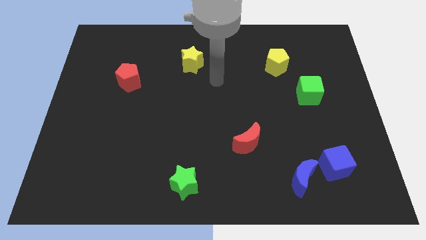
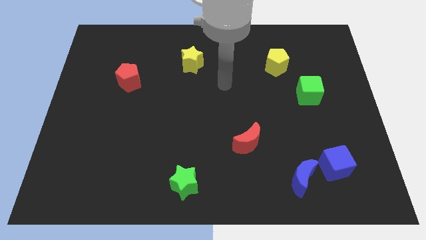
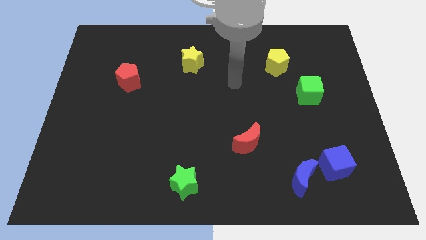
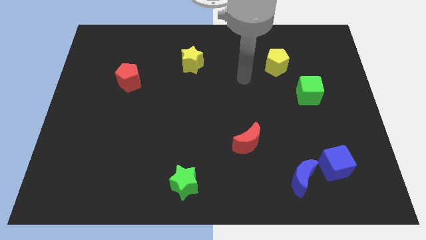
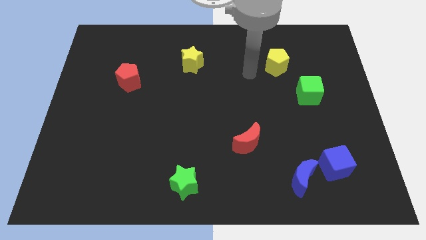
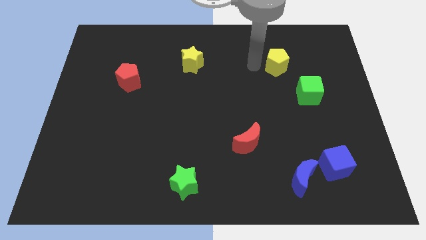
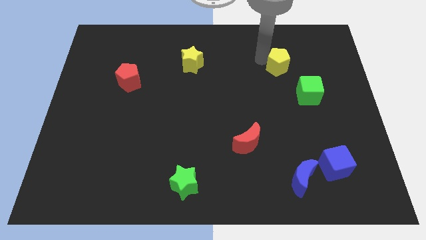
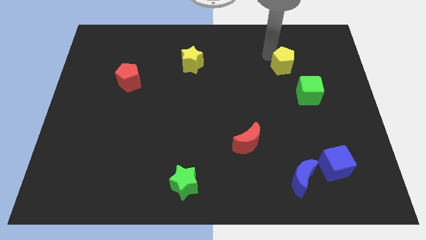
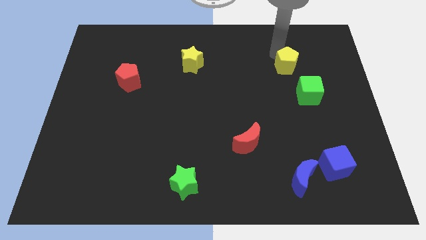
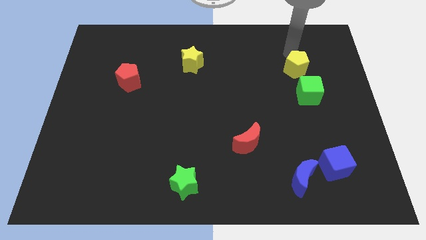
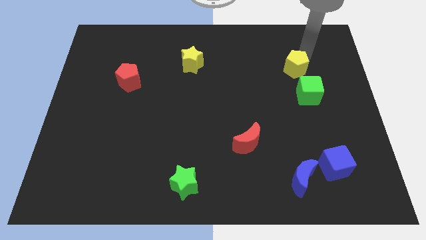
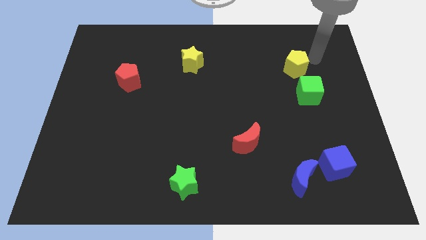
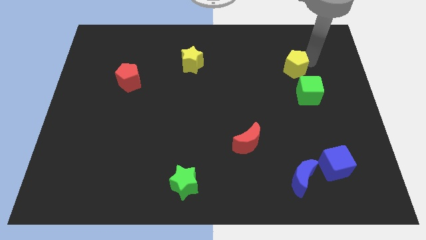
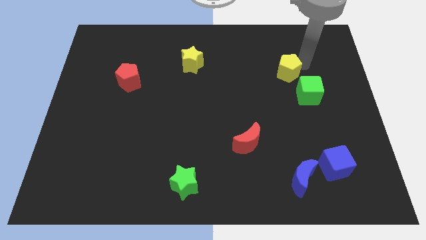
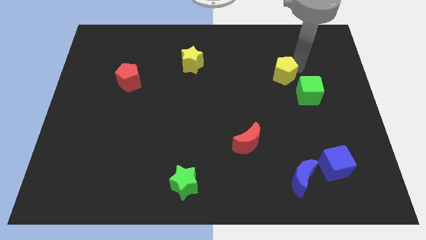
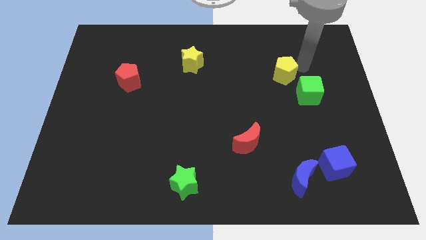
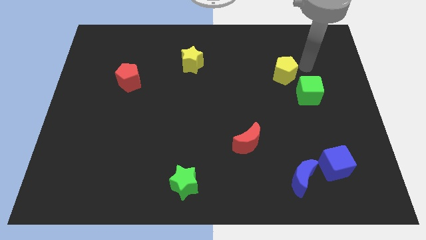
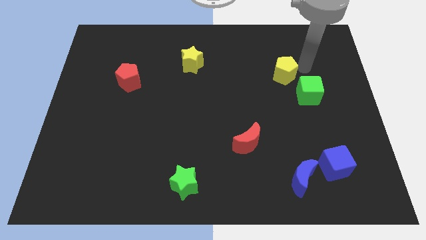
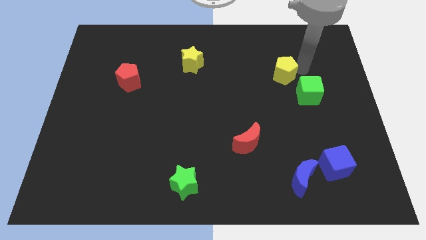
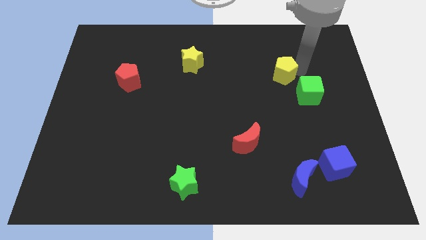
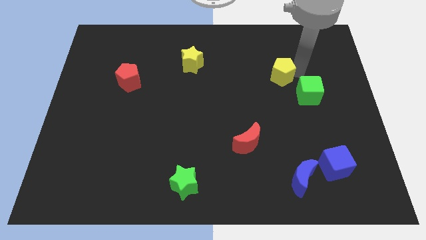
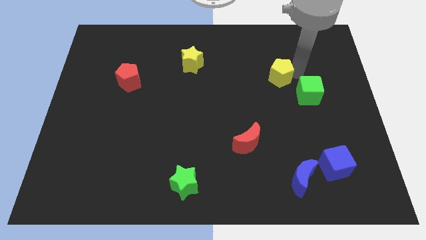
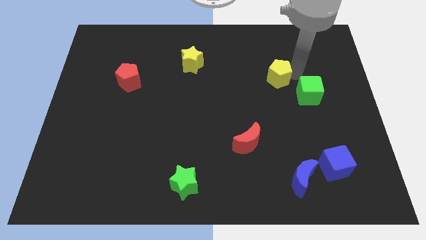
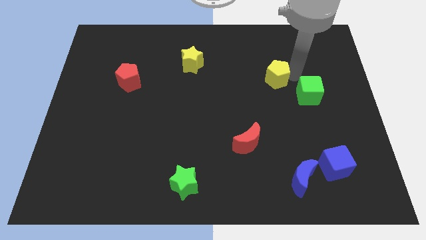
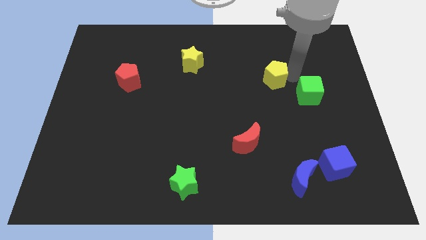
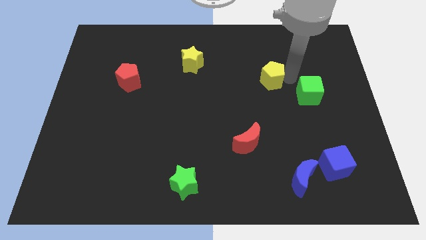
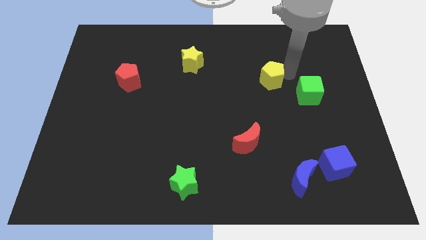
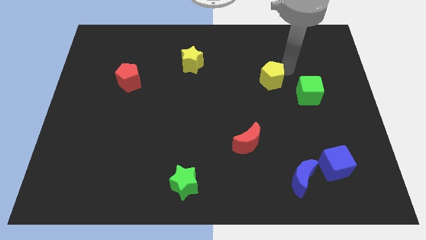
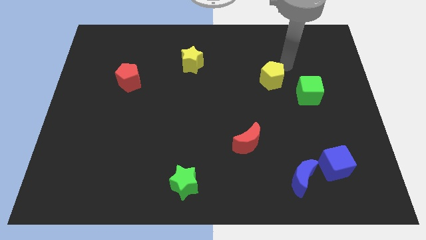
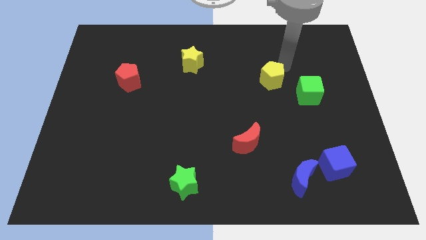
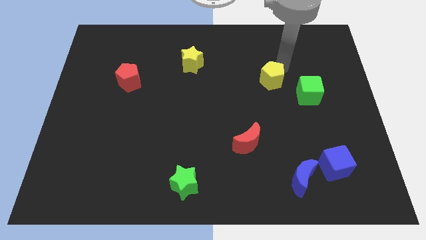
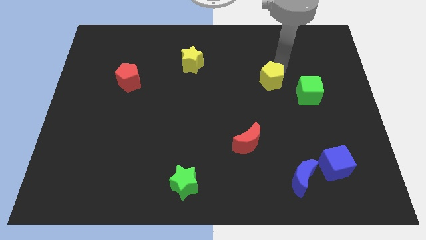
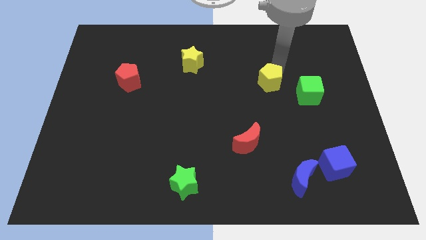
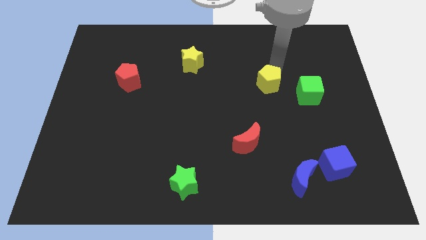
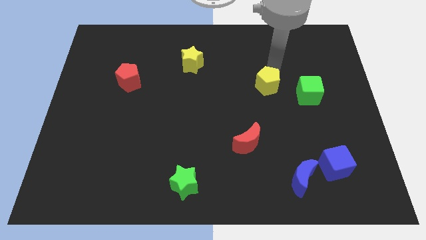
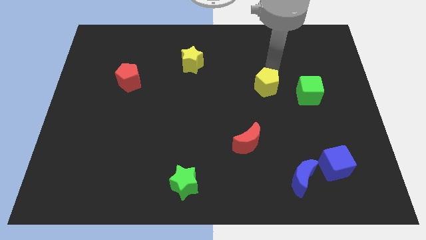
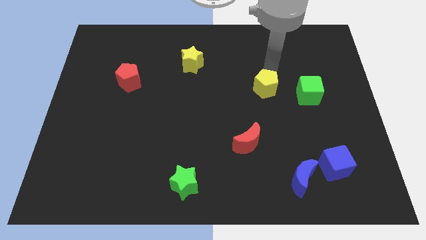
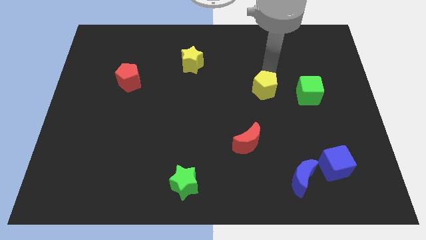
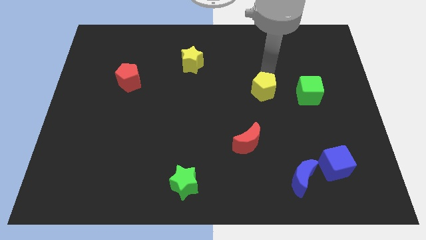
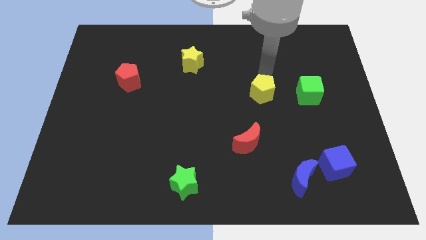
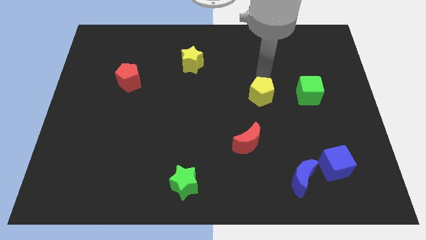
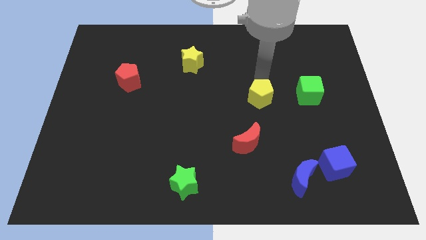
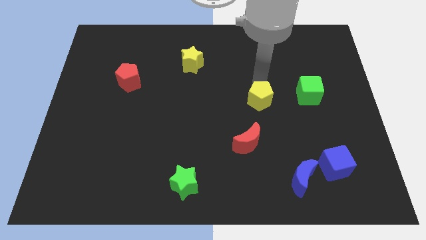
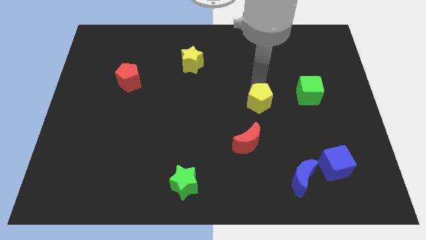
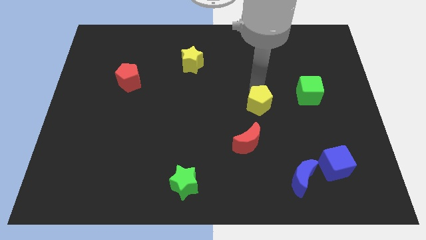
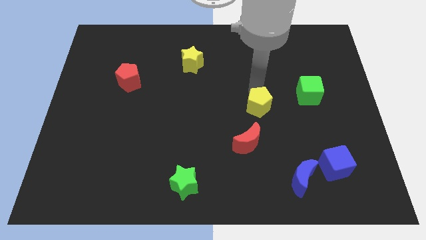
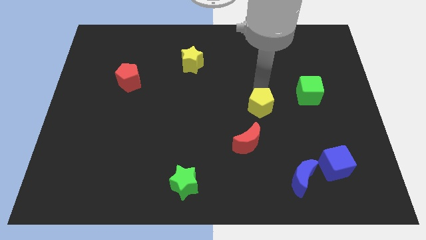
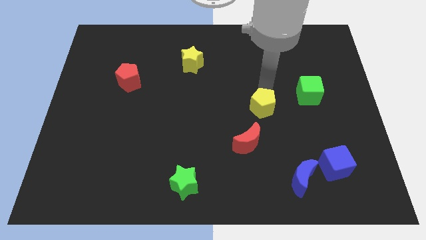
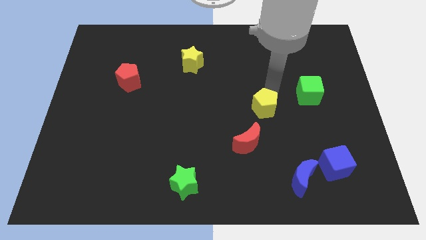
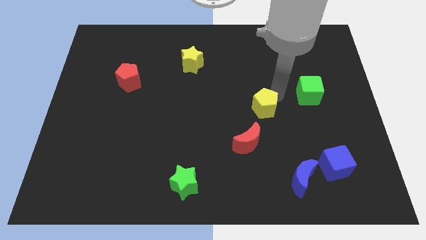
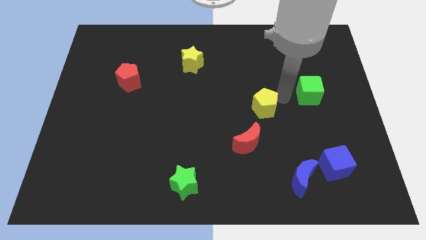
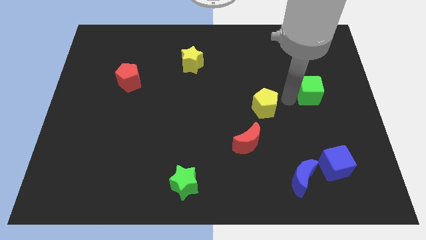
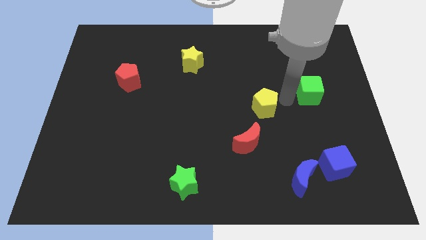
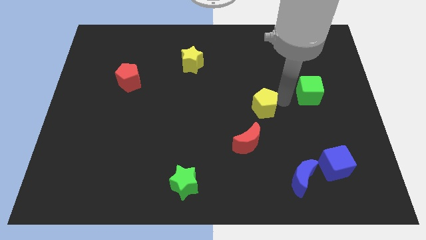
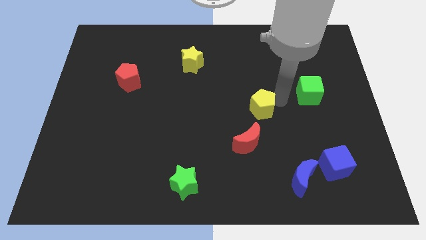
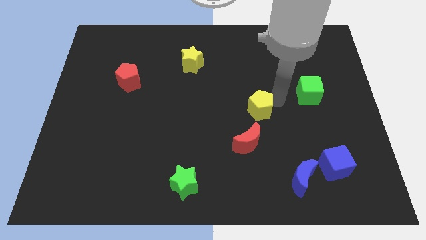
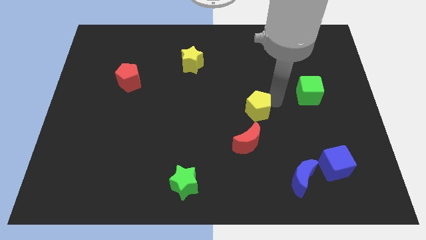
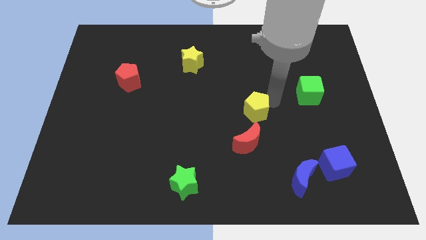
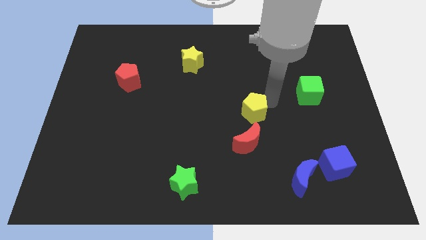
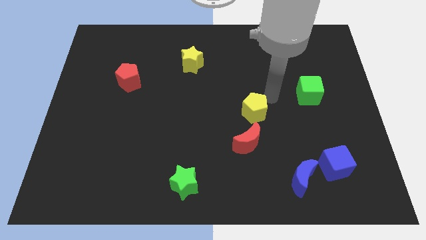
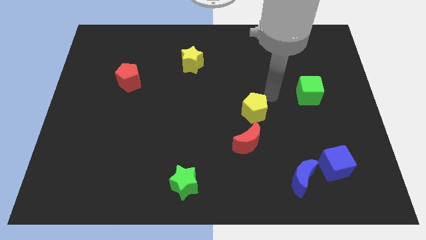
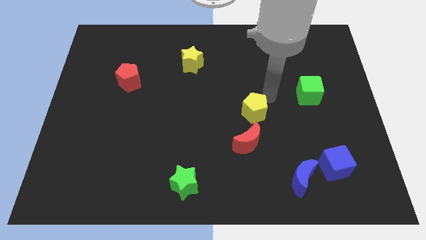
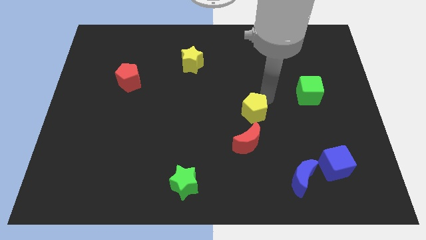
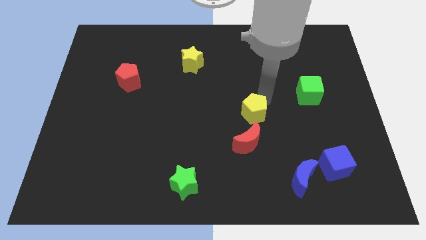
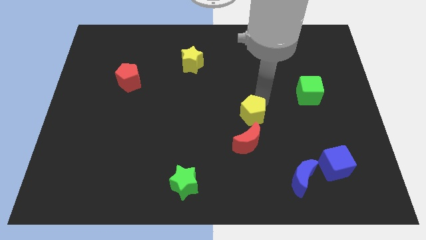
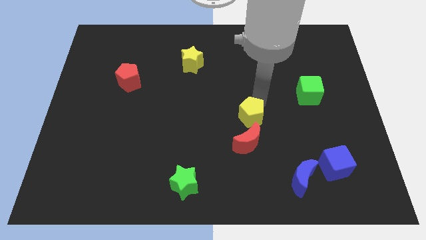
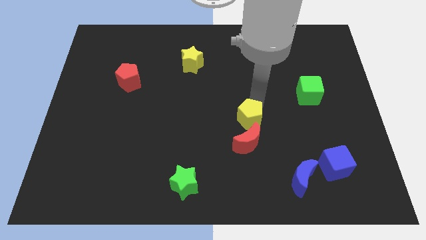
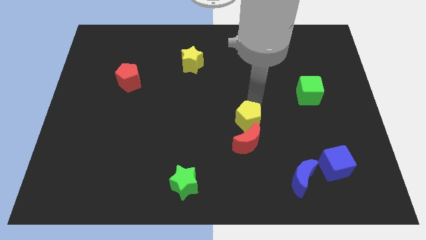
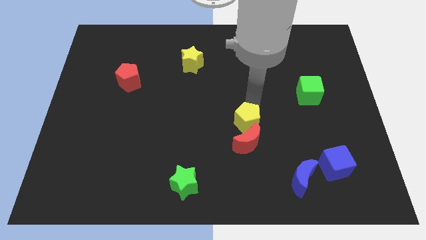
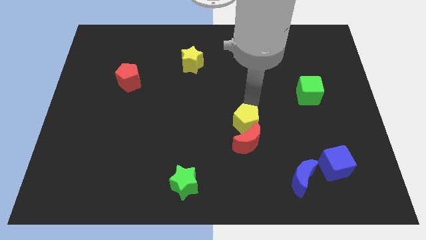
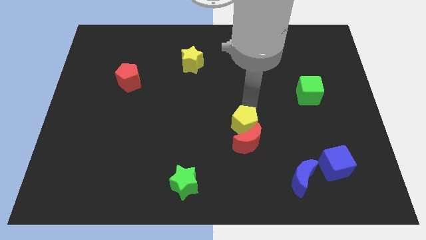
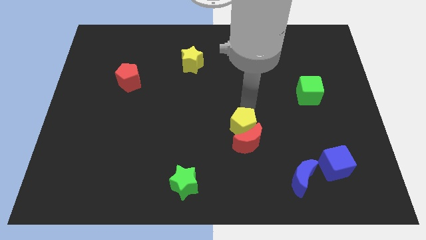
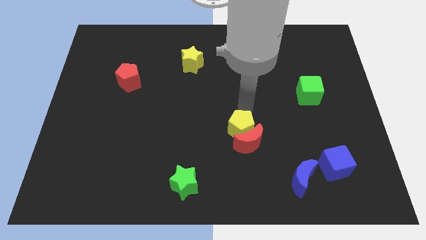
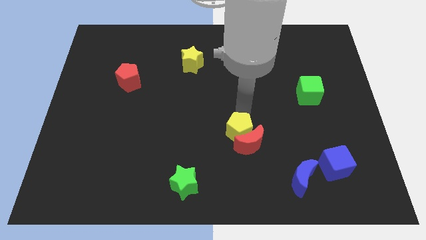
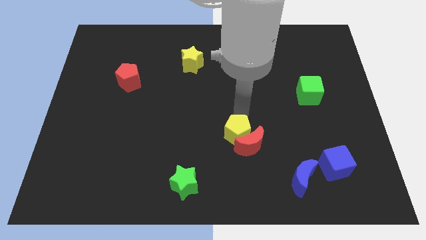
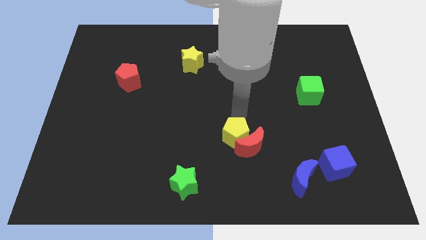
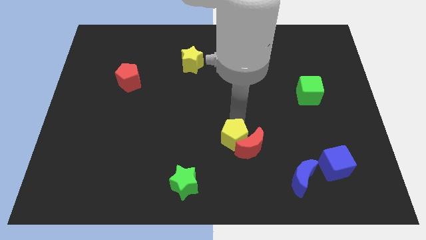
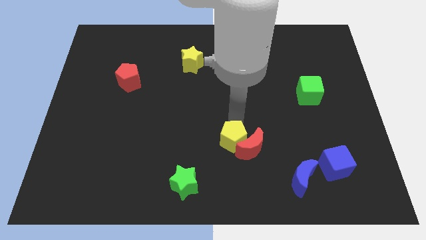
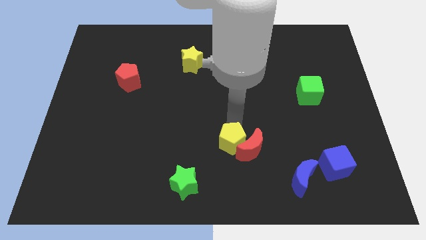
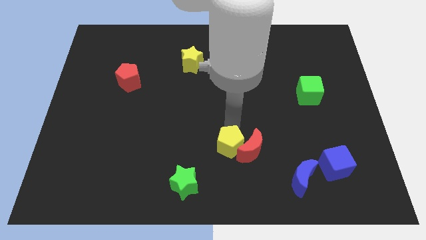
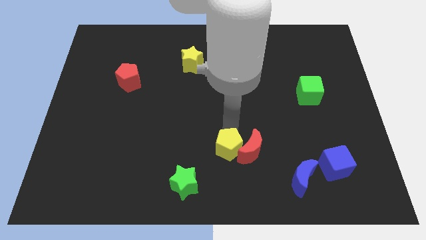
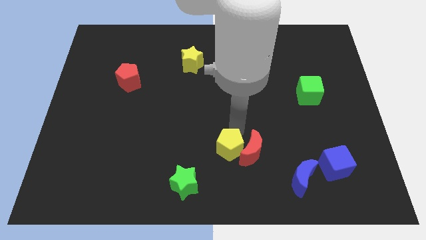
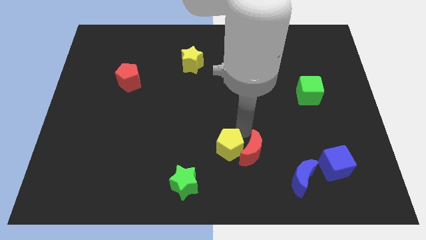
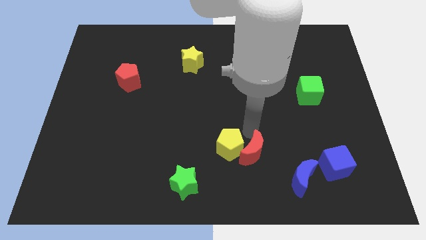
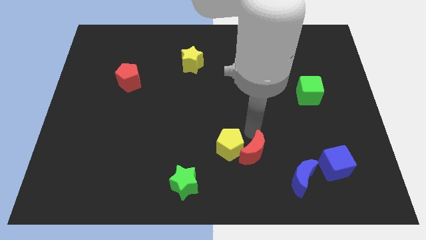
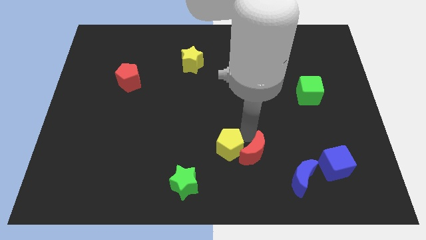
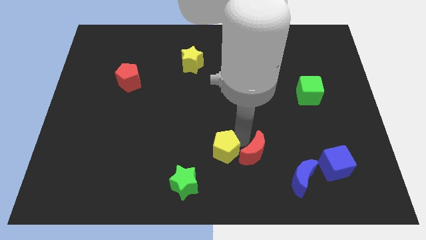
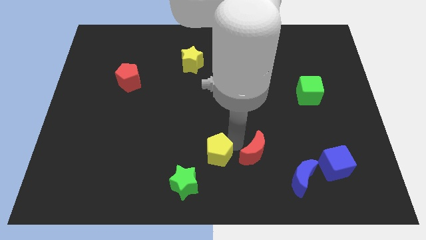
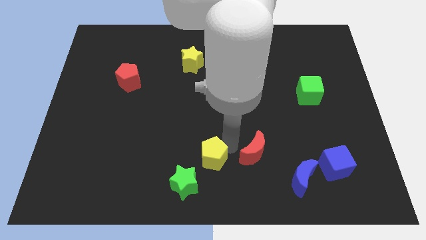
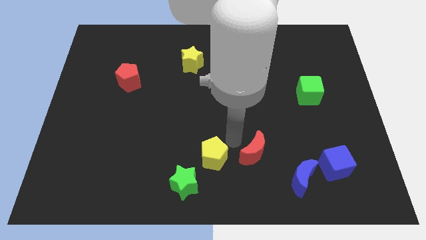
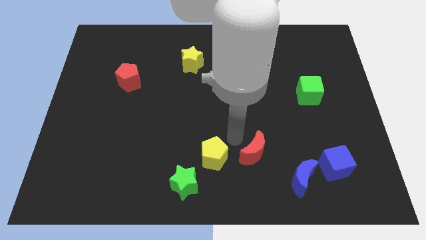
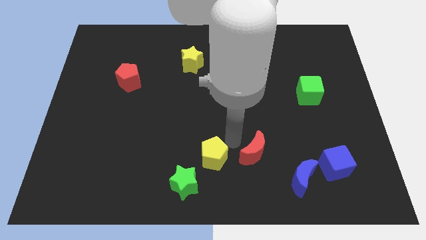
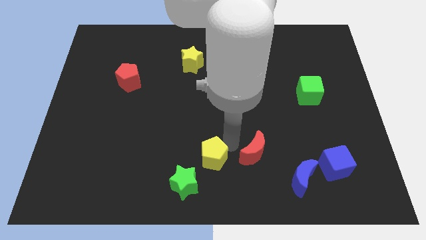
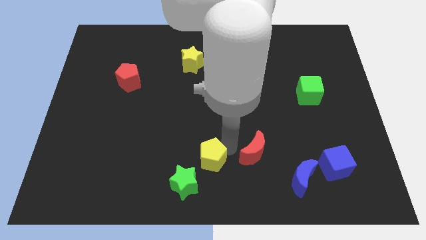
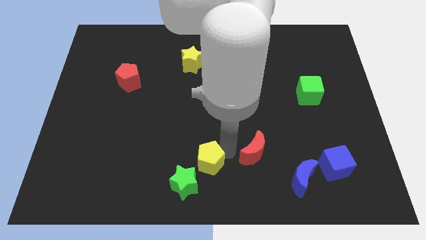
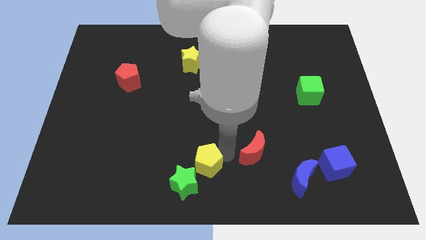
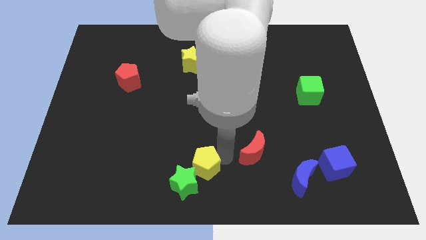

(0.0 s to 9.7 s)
slide the yellow pentagon close to the green star
